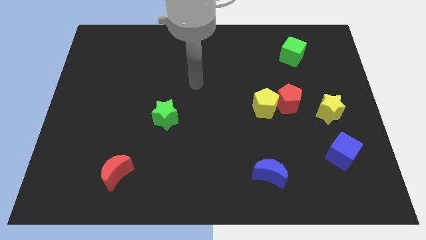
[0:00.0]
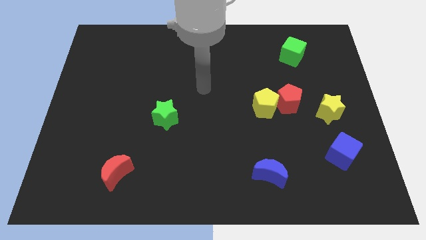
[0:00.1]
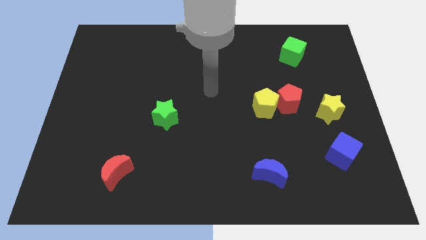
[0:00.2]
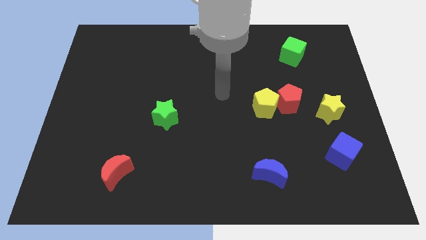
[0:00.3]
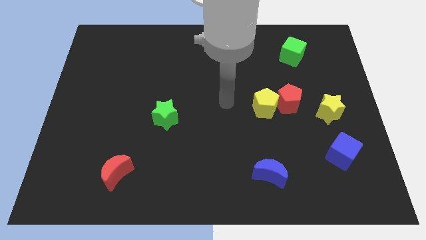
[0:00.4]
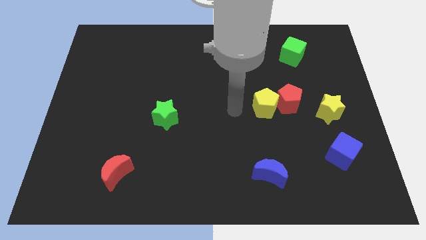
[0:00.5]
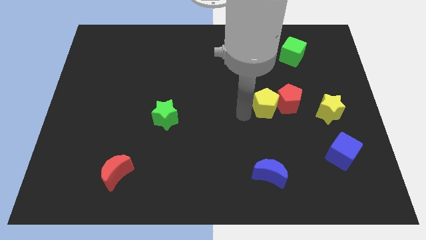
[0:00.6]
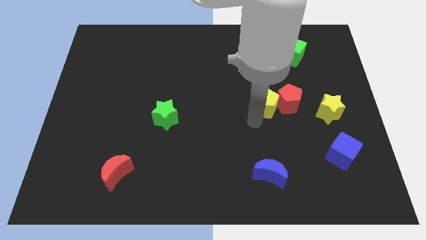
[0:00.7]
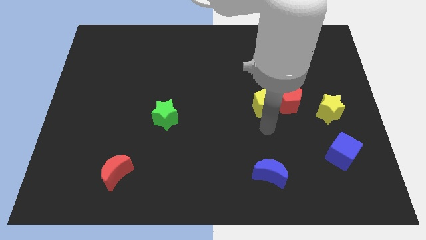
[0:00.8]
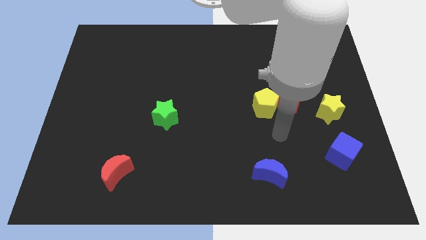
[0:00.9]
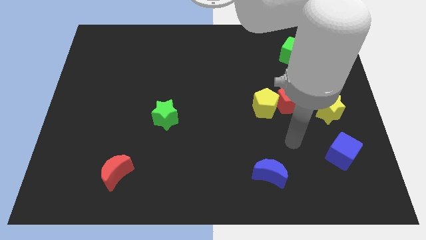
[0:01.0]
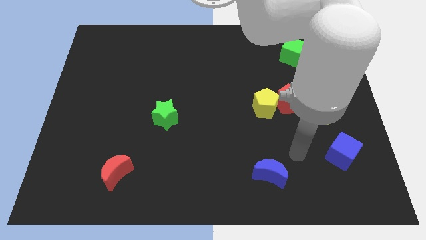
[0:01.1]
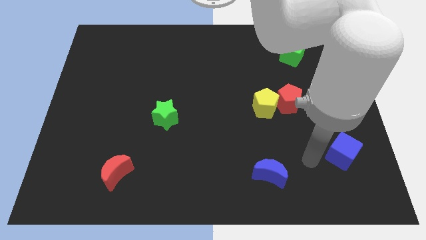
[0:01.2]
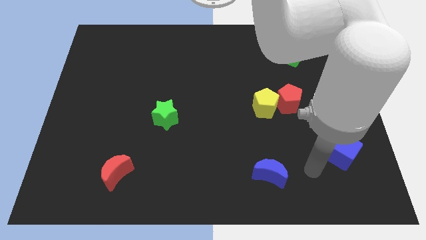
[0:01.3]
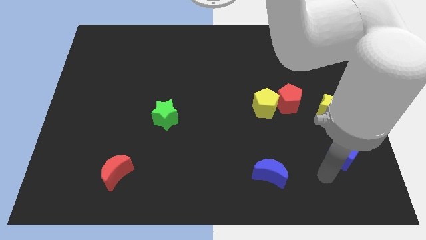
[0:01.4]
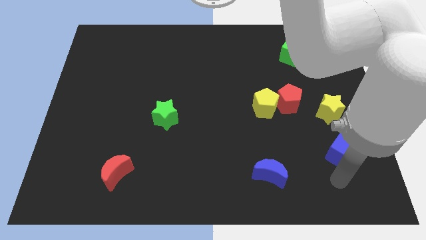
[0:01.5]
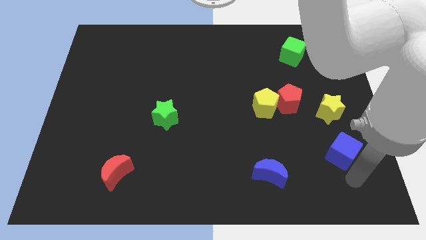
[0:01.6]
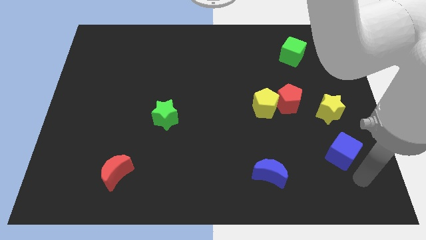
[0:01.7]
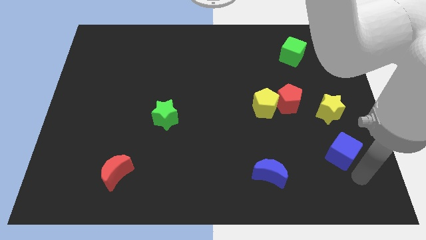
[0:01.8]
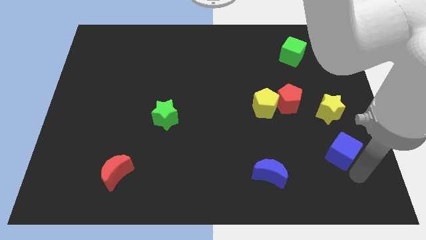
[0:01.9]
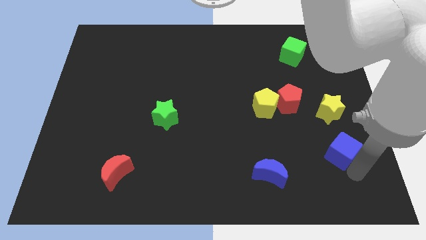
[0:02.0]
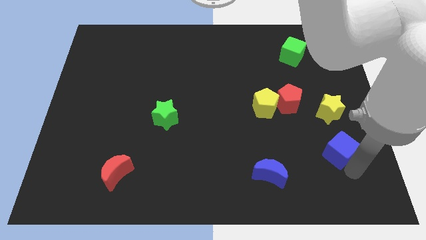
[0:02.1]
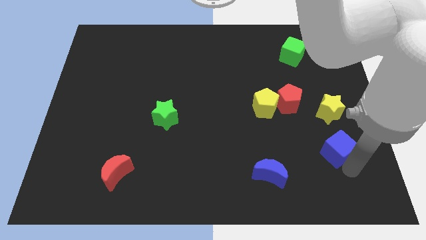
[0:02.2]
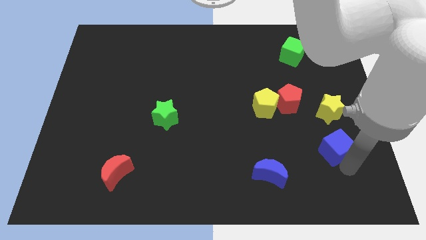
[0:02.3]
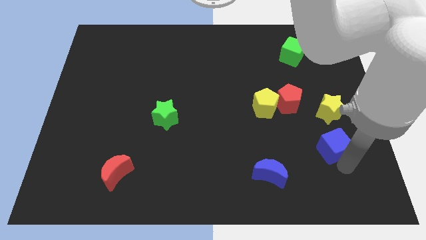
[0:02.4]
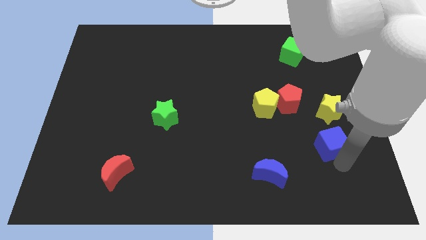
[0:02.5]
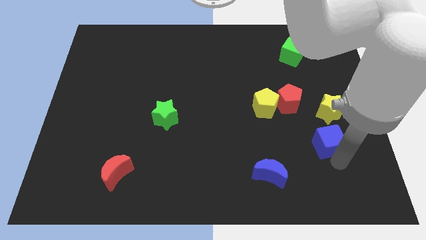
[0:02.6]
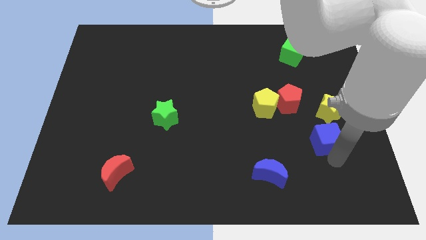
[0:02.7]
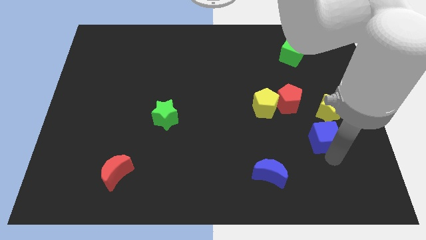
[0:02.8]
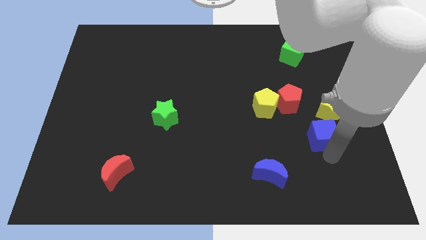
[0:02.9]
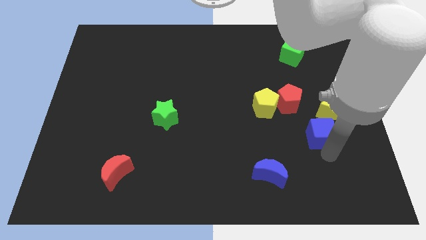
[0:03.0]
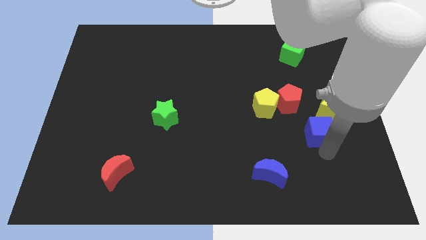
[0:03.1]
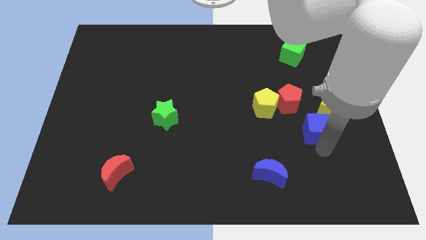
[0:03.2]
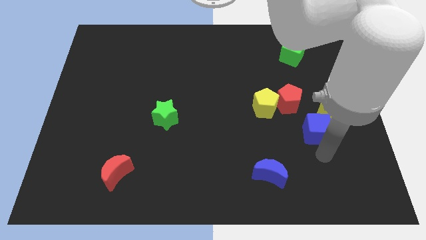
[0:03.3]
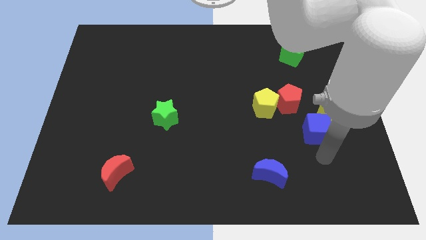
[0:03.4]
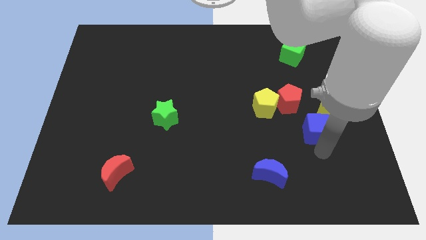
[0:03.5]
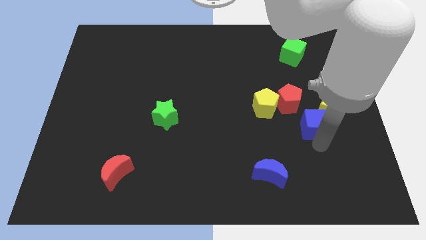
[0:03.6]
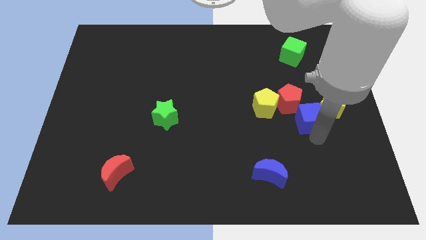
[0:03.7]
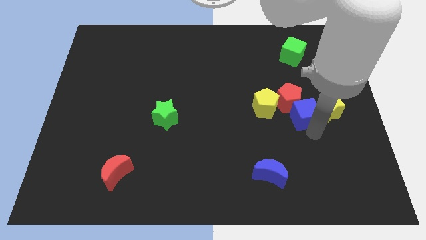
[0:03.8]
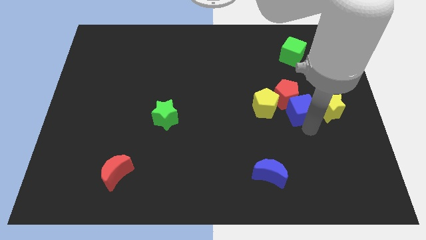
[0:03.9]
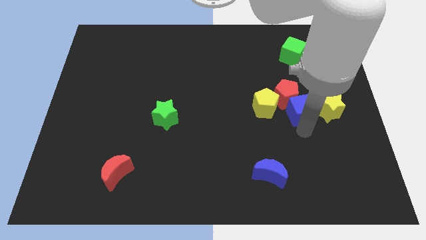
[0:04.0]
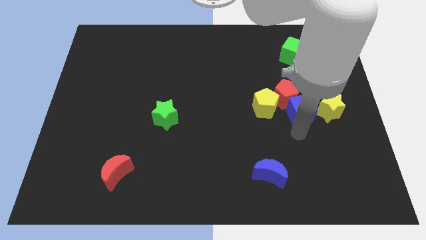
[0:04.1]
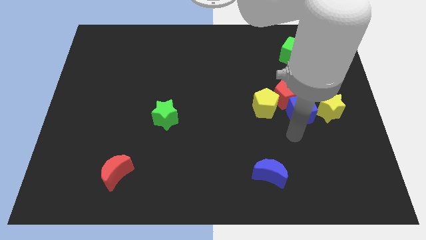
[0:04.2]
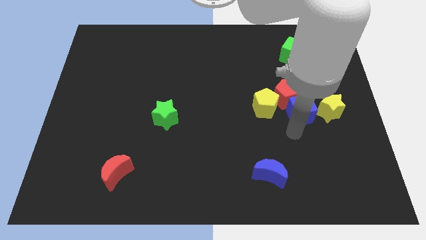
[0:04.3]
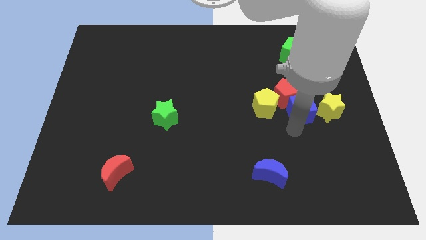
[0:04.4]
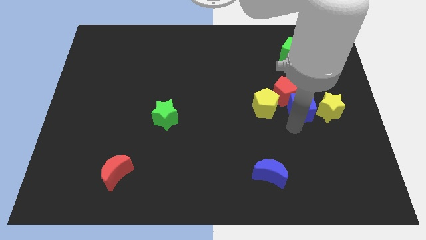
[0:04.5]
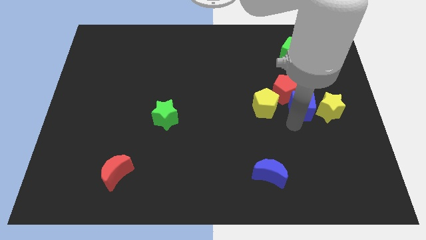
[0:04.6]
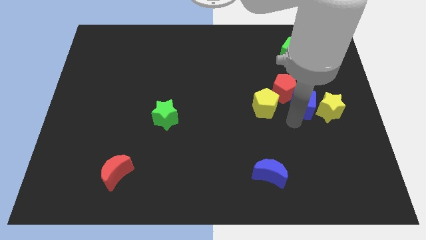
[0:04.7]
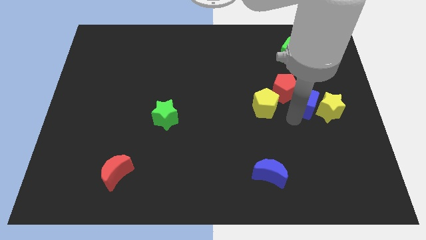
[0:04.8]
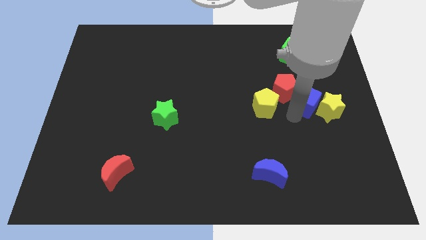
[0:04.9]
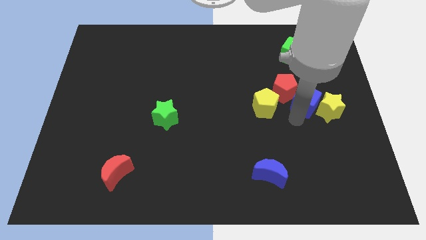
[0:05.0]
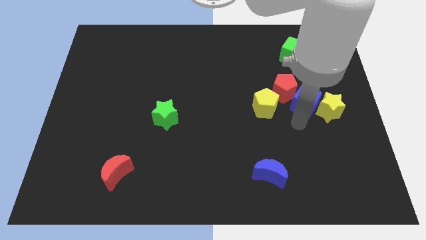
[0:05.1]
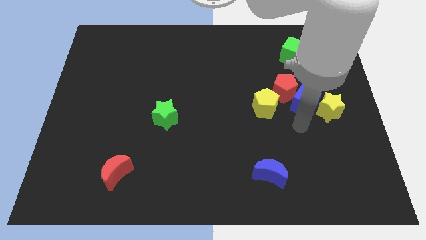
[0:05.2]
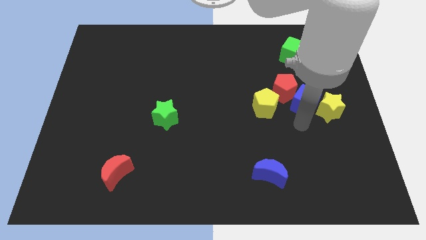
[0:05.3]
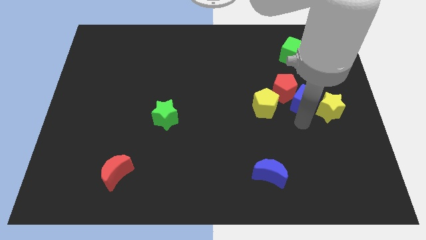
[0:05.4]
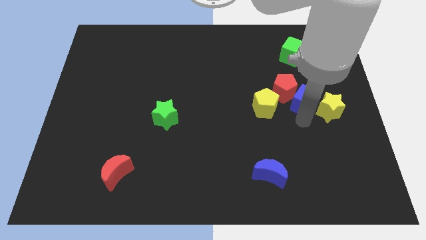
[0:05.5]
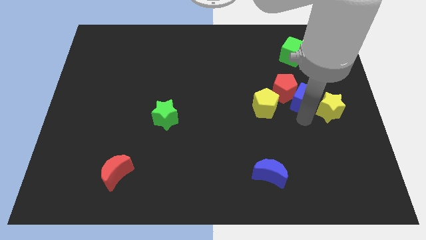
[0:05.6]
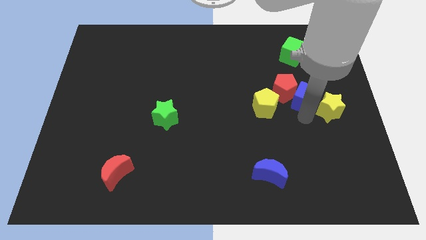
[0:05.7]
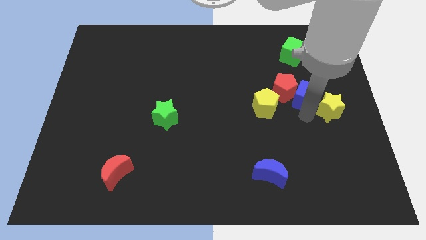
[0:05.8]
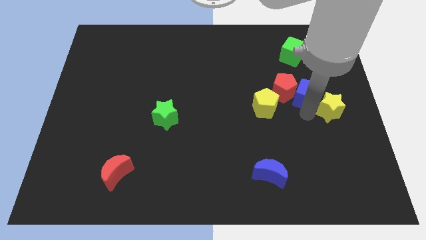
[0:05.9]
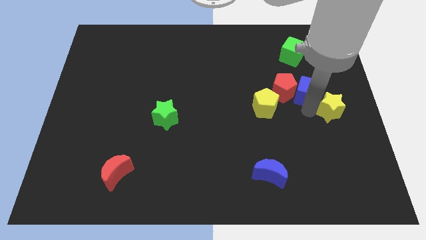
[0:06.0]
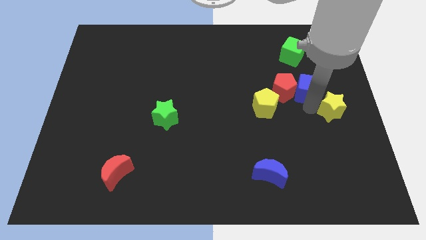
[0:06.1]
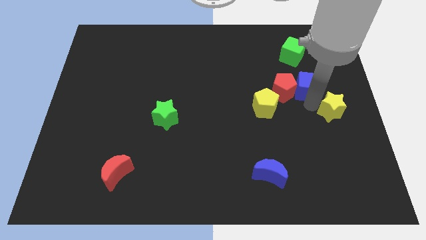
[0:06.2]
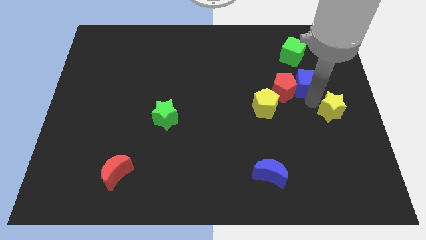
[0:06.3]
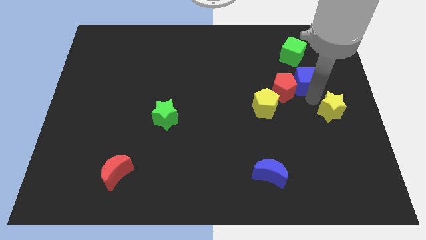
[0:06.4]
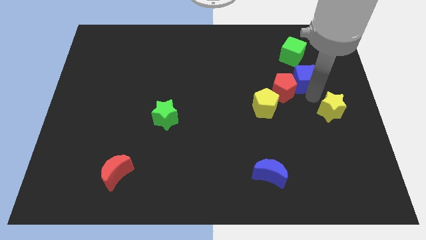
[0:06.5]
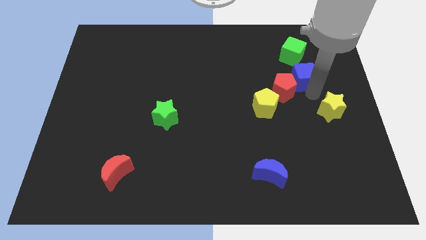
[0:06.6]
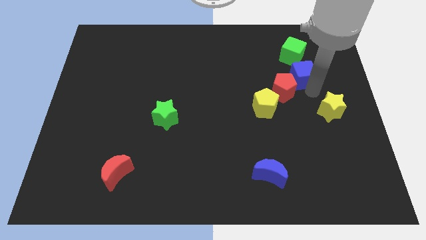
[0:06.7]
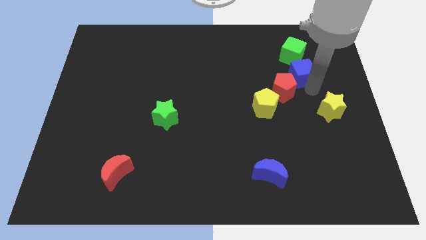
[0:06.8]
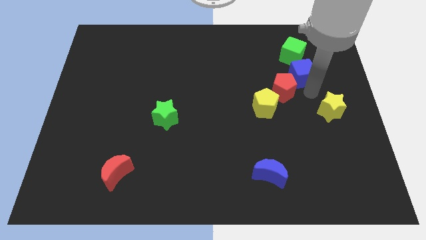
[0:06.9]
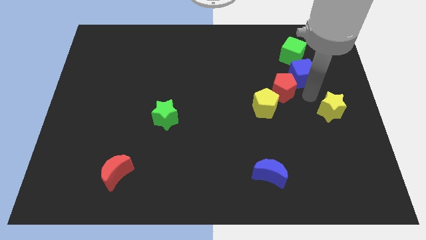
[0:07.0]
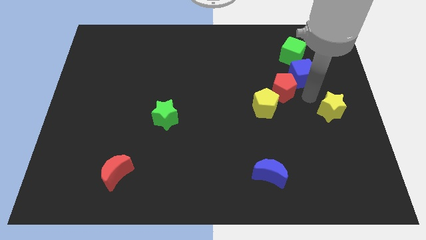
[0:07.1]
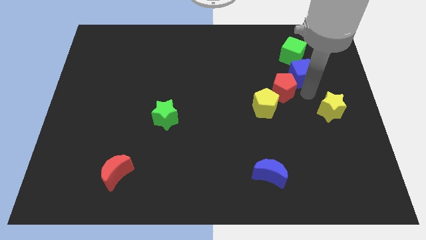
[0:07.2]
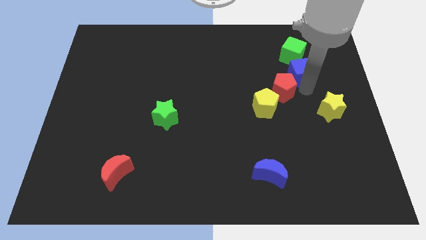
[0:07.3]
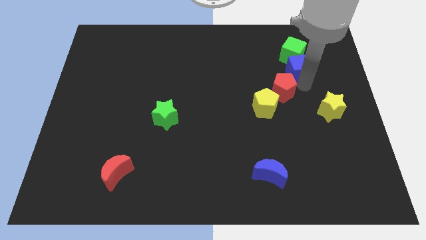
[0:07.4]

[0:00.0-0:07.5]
put the blue cube close to the green cube
